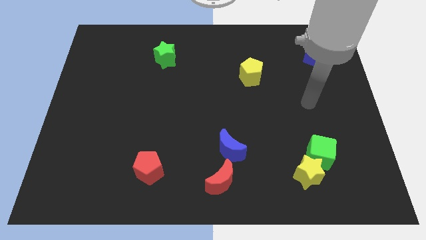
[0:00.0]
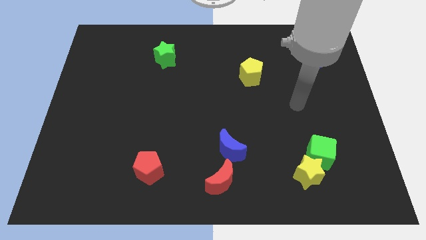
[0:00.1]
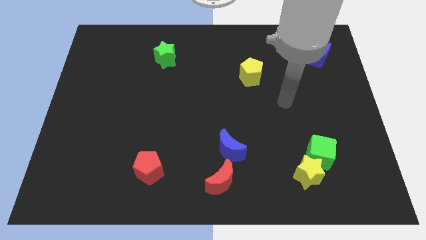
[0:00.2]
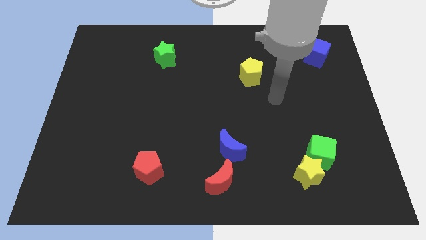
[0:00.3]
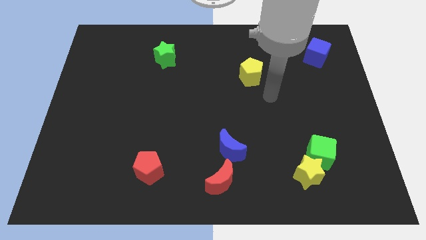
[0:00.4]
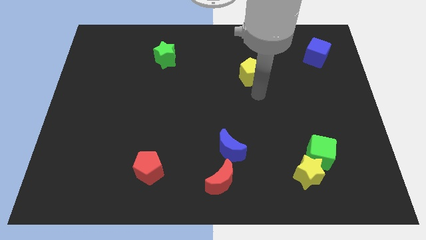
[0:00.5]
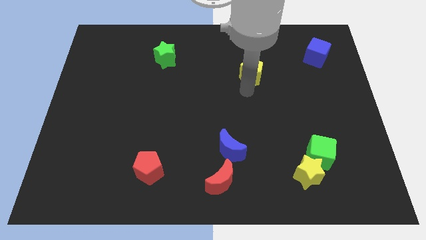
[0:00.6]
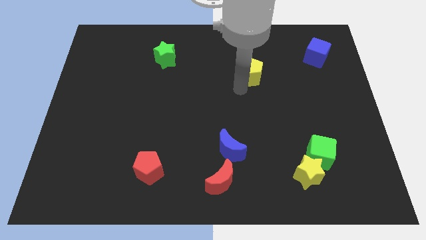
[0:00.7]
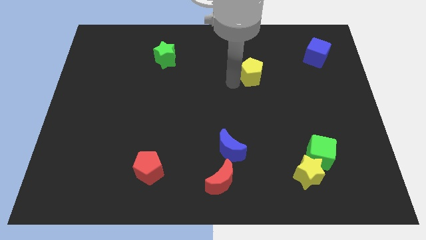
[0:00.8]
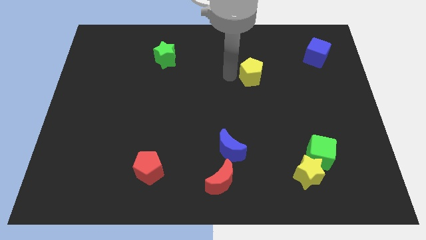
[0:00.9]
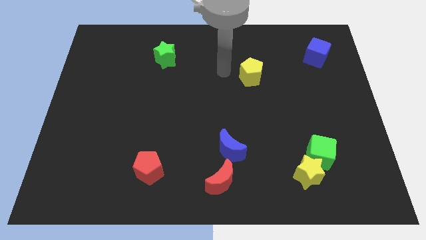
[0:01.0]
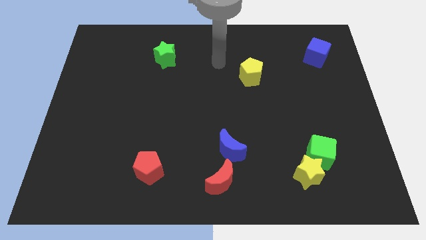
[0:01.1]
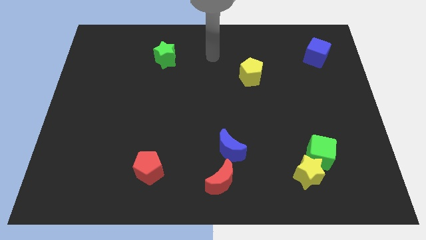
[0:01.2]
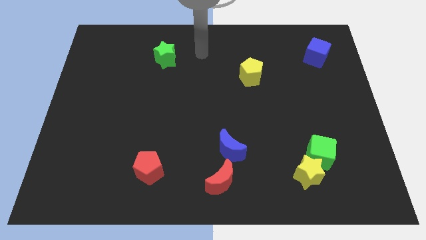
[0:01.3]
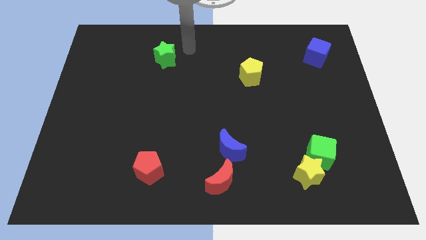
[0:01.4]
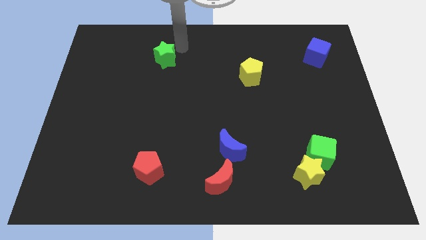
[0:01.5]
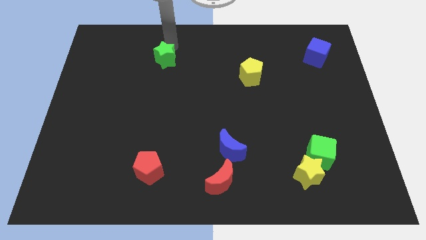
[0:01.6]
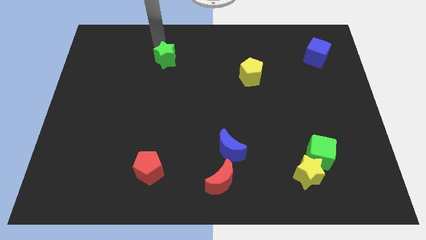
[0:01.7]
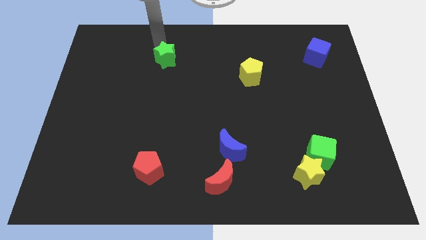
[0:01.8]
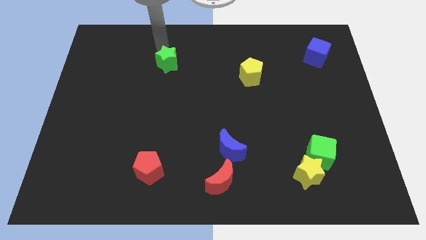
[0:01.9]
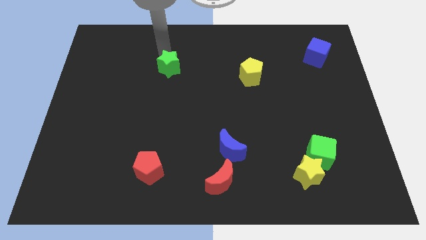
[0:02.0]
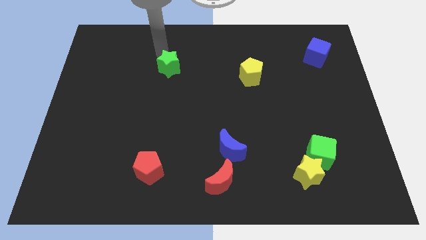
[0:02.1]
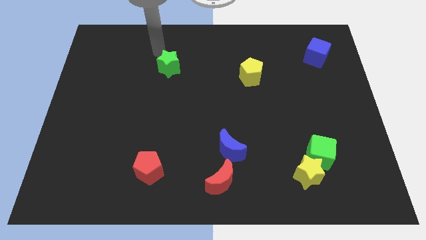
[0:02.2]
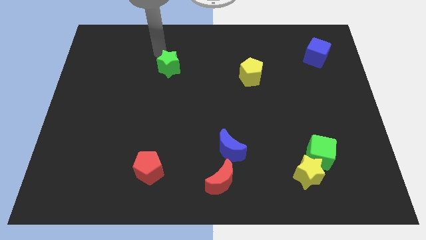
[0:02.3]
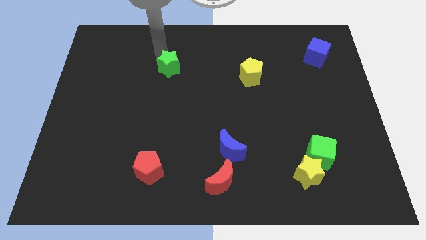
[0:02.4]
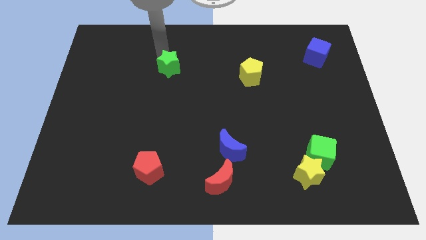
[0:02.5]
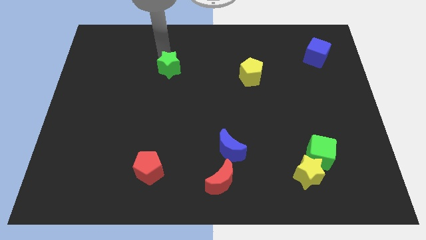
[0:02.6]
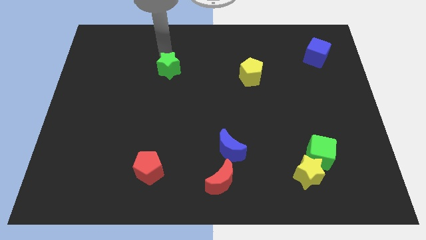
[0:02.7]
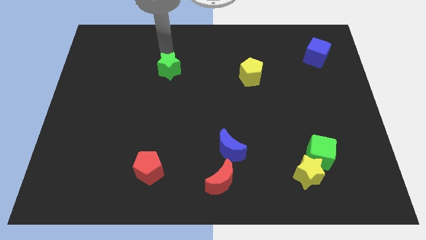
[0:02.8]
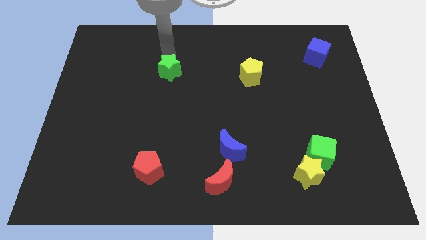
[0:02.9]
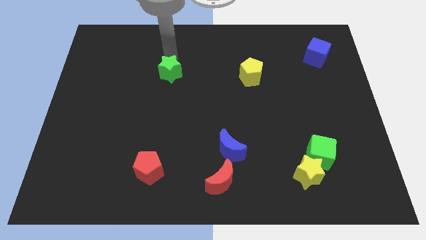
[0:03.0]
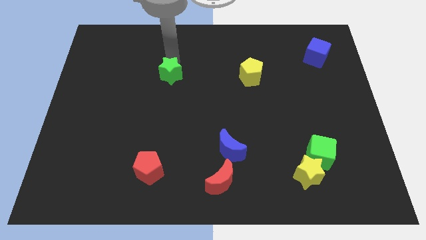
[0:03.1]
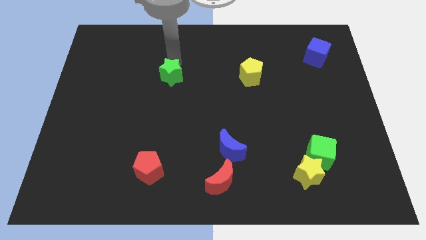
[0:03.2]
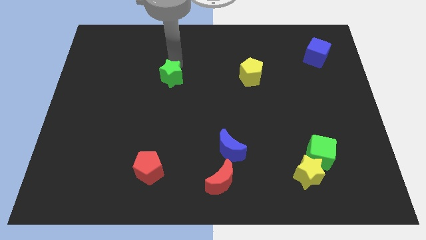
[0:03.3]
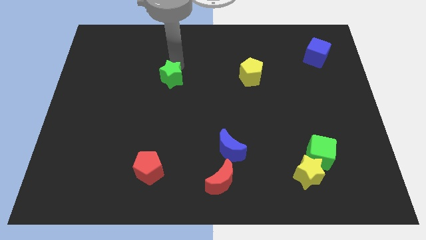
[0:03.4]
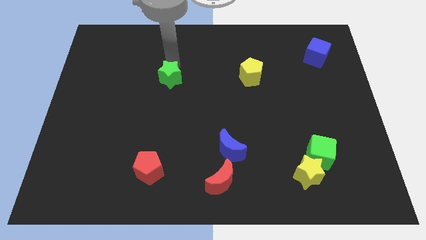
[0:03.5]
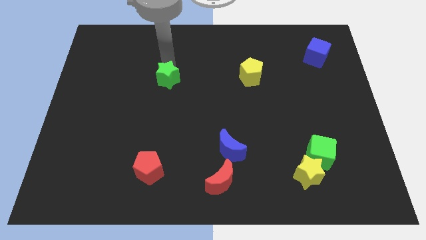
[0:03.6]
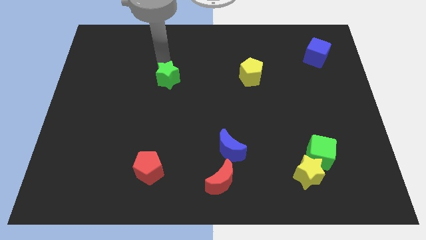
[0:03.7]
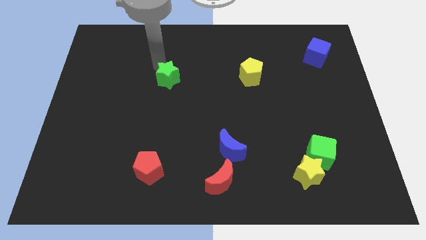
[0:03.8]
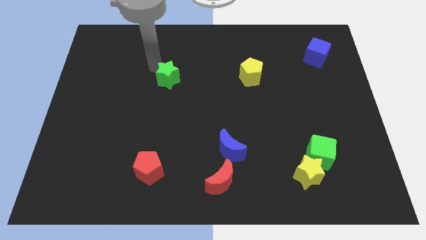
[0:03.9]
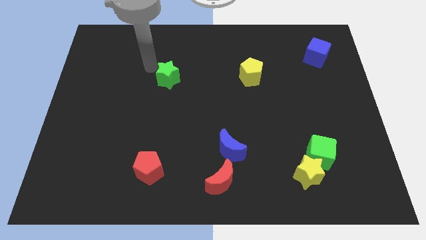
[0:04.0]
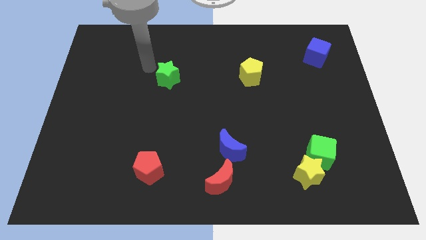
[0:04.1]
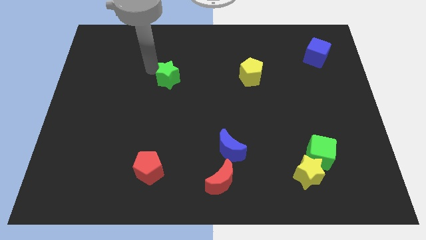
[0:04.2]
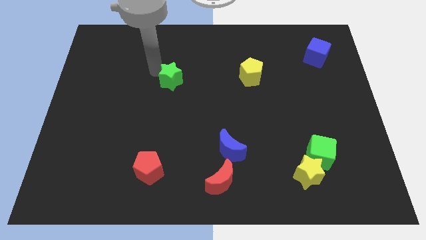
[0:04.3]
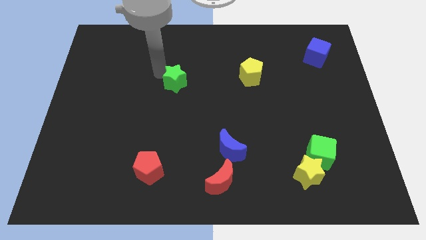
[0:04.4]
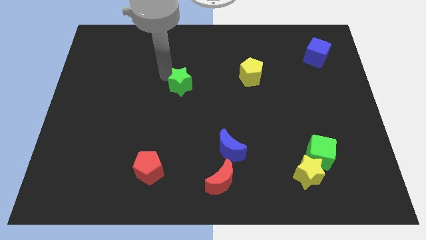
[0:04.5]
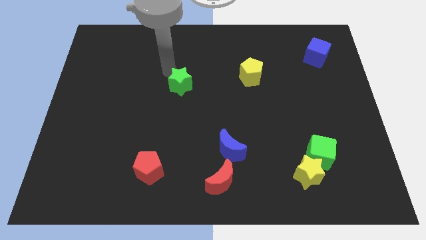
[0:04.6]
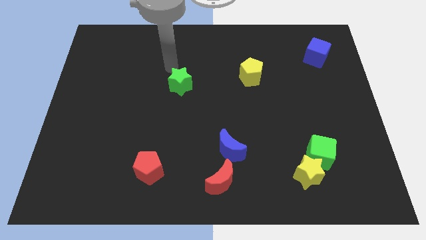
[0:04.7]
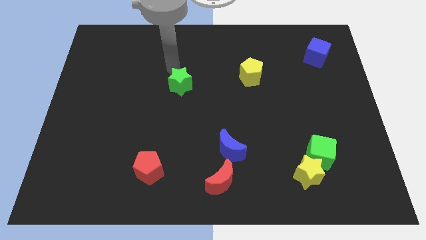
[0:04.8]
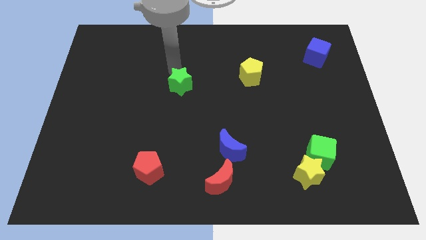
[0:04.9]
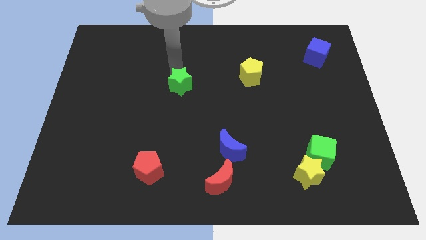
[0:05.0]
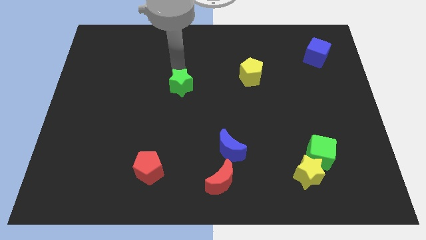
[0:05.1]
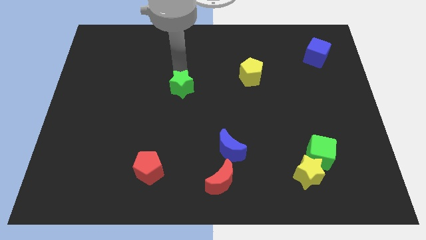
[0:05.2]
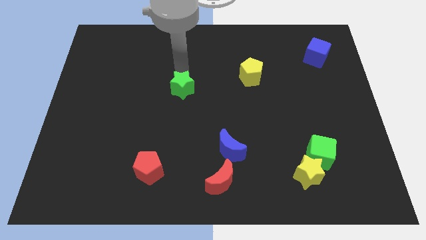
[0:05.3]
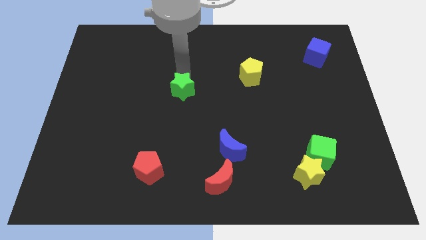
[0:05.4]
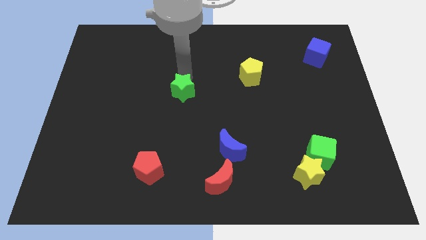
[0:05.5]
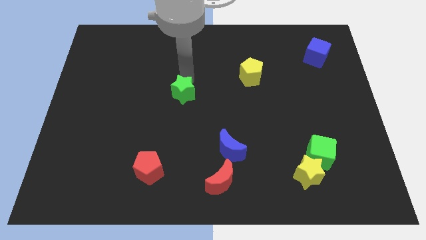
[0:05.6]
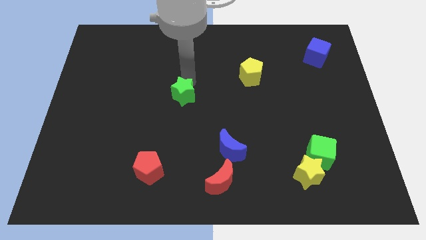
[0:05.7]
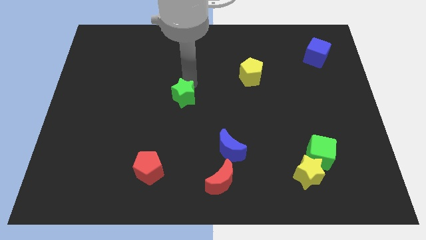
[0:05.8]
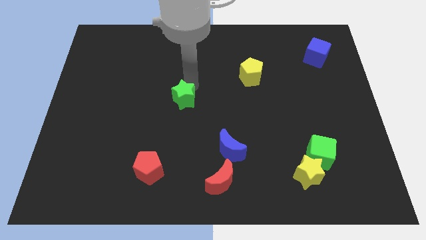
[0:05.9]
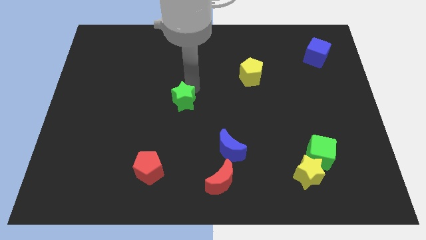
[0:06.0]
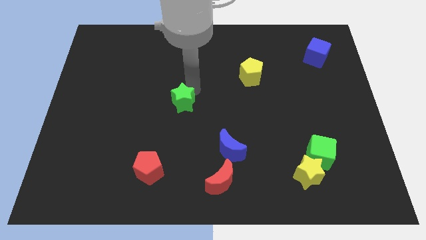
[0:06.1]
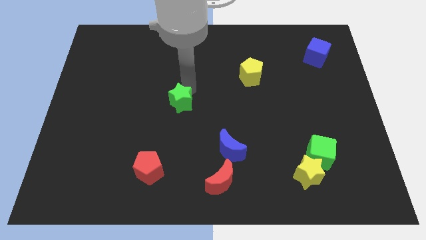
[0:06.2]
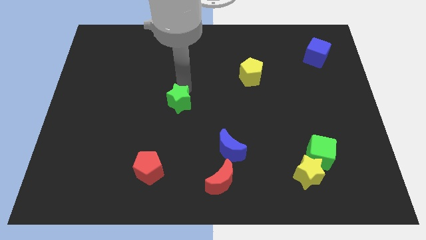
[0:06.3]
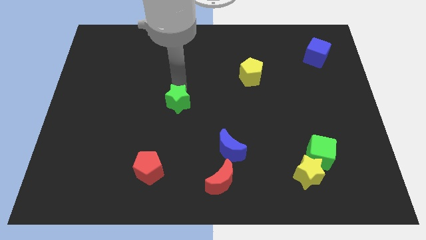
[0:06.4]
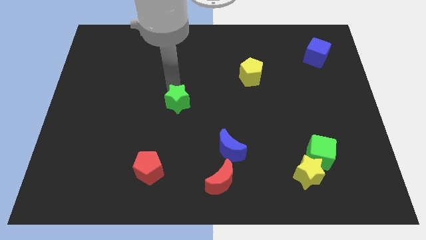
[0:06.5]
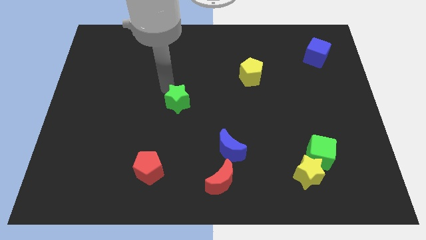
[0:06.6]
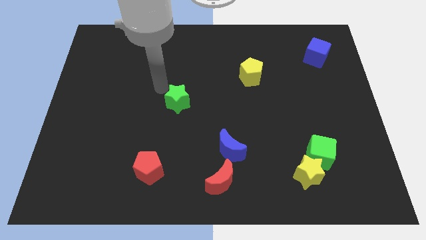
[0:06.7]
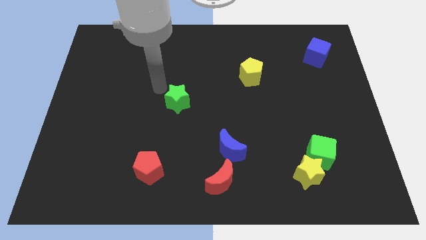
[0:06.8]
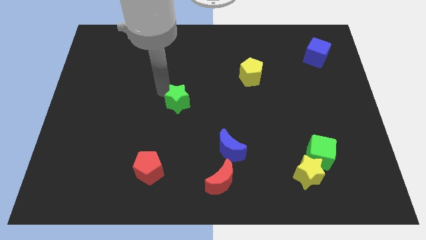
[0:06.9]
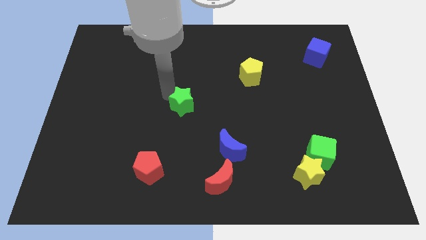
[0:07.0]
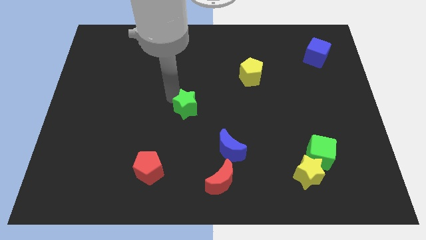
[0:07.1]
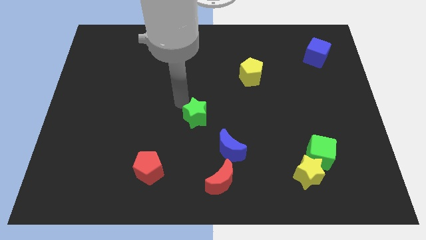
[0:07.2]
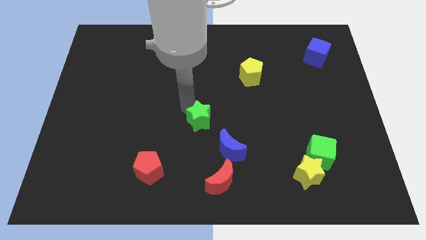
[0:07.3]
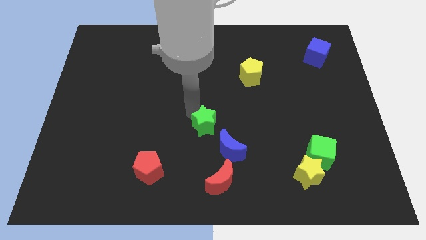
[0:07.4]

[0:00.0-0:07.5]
put the green star above the red moon
